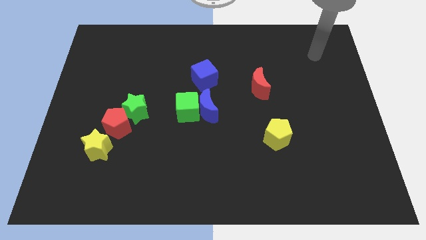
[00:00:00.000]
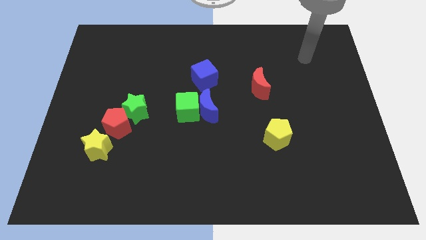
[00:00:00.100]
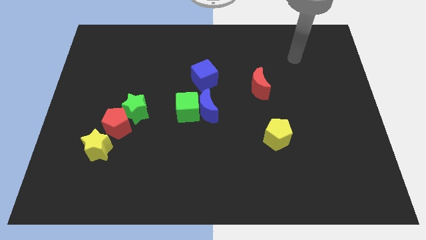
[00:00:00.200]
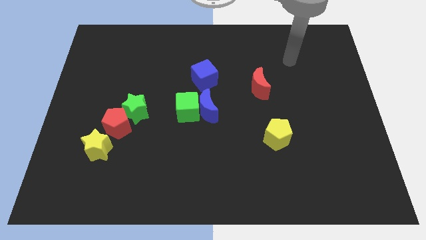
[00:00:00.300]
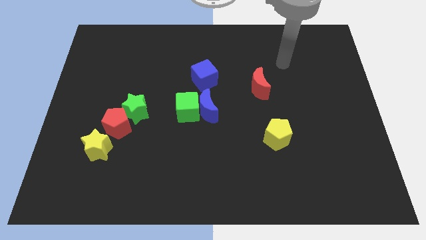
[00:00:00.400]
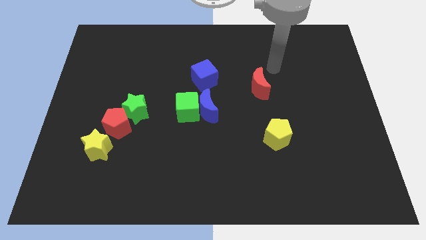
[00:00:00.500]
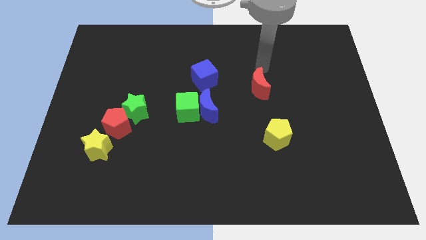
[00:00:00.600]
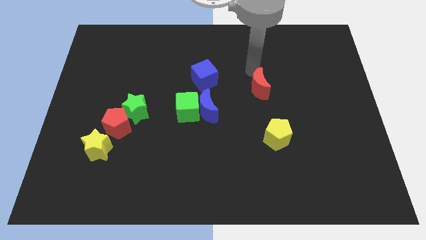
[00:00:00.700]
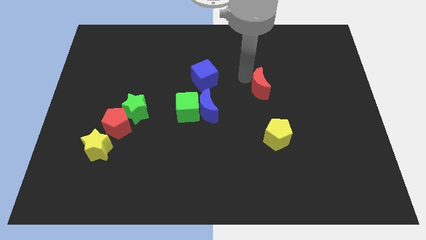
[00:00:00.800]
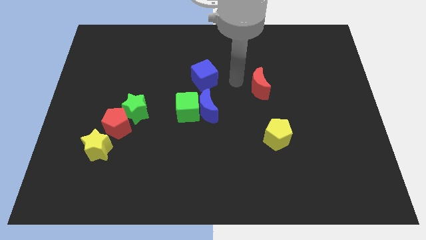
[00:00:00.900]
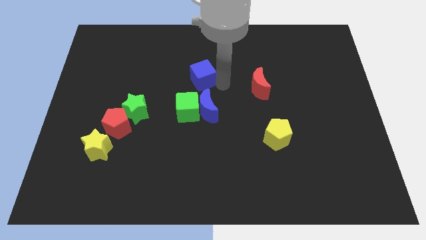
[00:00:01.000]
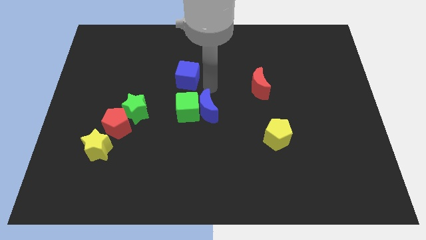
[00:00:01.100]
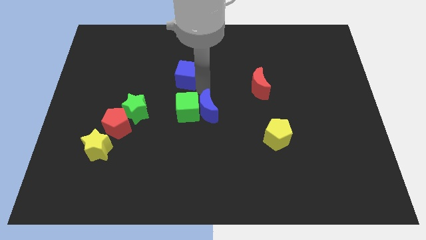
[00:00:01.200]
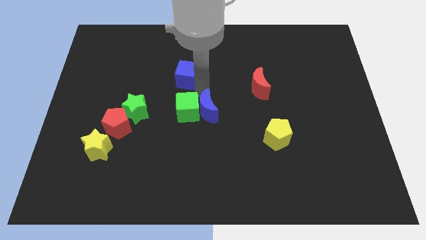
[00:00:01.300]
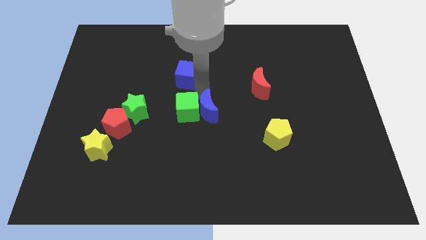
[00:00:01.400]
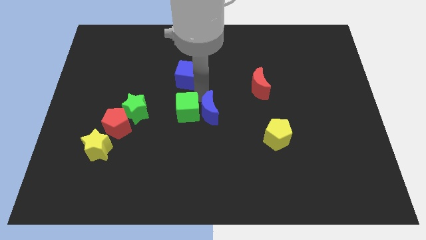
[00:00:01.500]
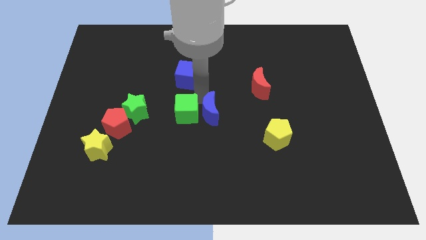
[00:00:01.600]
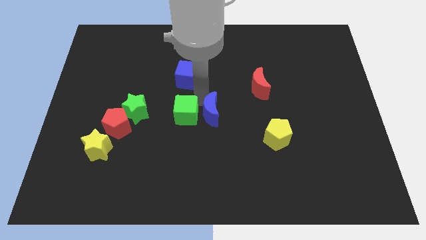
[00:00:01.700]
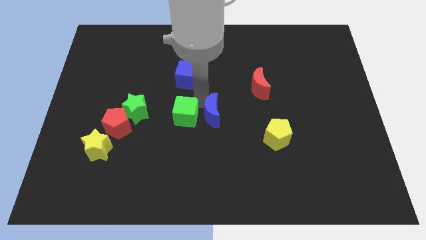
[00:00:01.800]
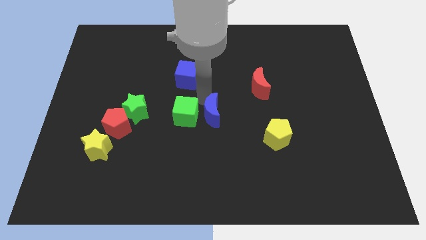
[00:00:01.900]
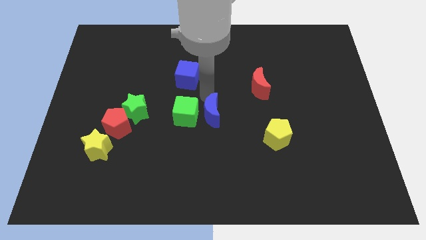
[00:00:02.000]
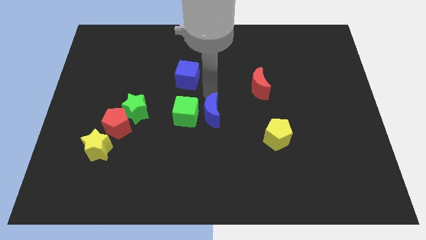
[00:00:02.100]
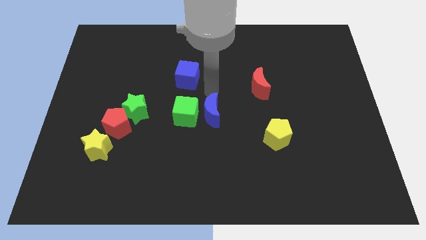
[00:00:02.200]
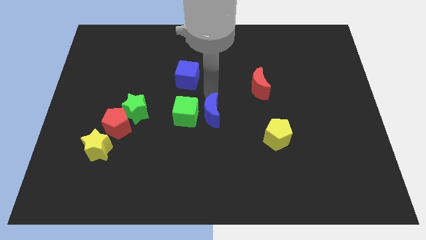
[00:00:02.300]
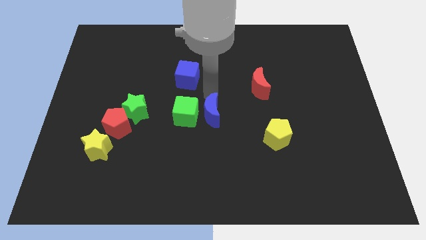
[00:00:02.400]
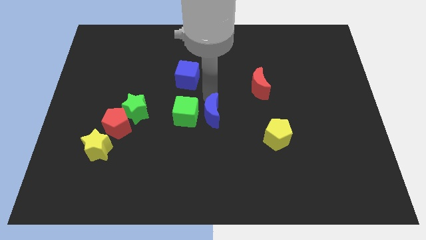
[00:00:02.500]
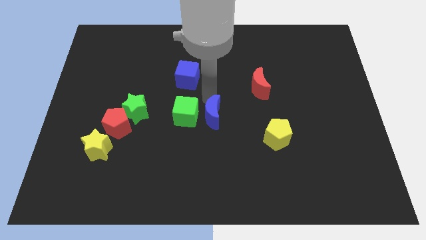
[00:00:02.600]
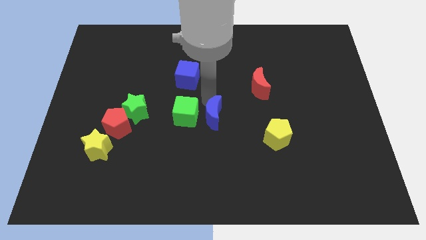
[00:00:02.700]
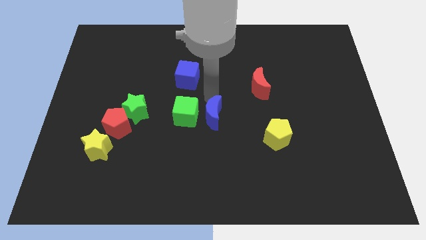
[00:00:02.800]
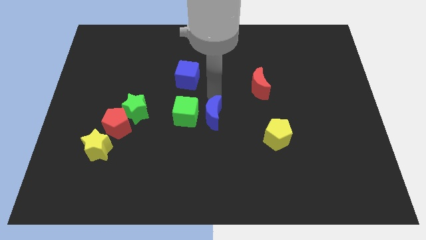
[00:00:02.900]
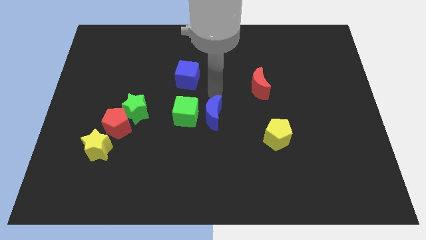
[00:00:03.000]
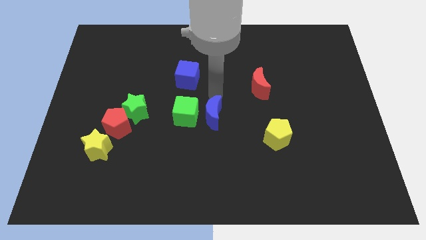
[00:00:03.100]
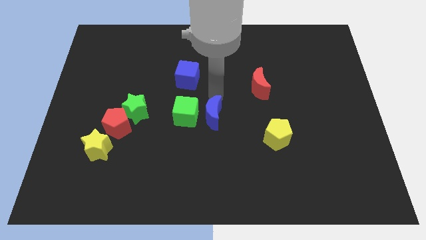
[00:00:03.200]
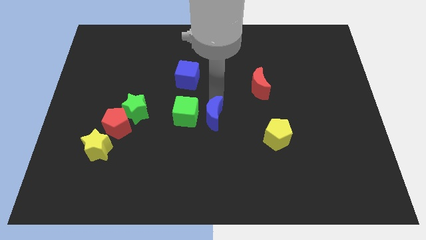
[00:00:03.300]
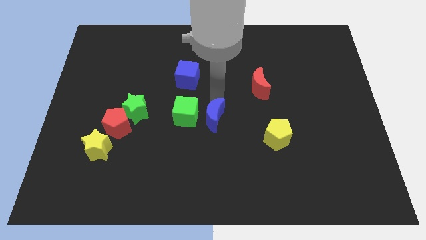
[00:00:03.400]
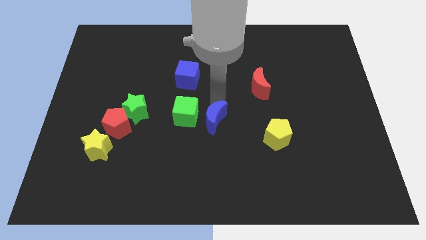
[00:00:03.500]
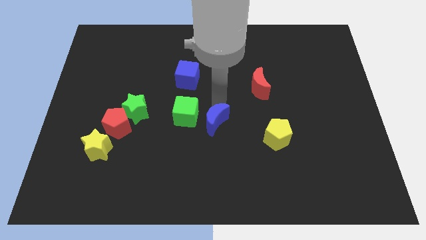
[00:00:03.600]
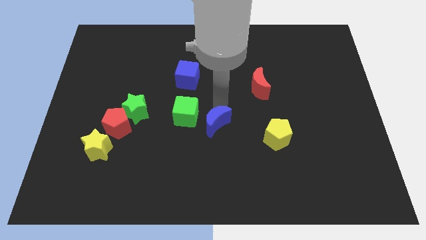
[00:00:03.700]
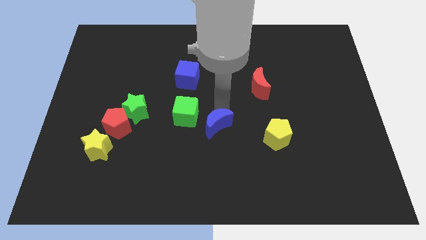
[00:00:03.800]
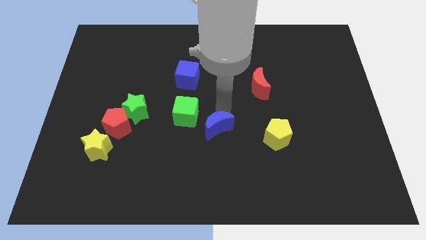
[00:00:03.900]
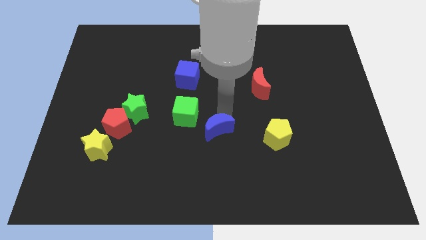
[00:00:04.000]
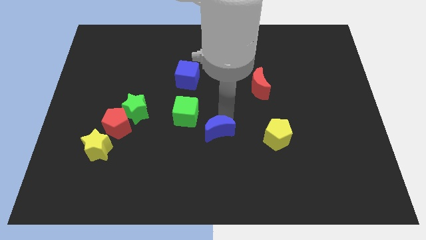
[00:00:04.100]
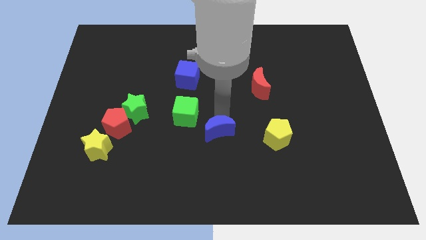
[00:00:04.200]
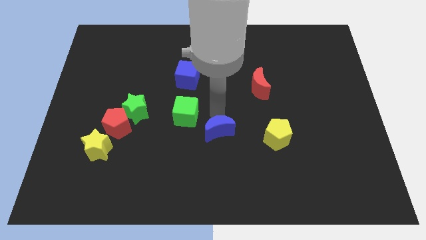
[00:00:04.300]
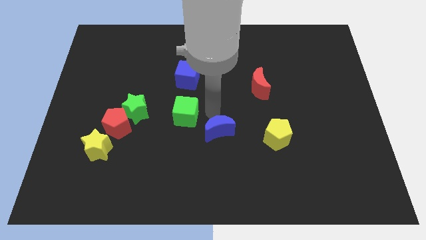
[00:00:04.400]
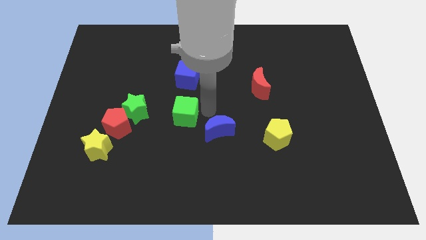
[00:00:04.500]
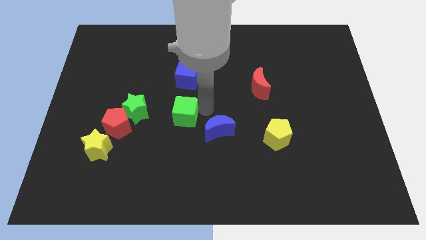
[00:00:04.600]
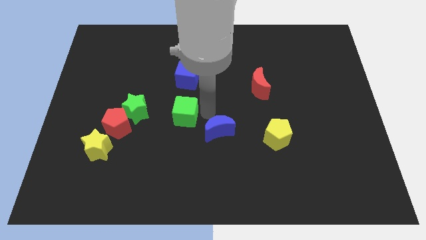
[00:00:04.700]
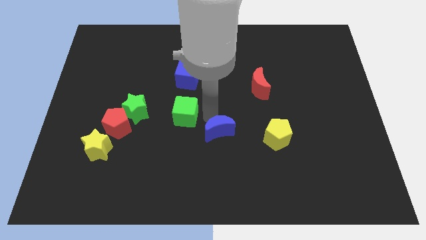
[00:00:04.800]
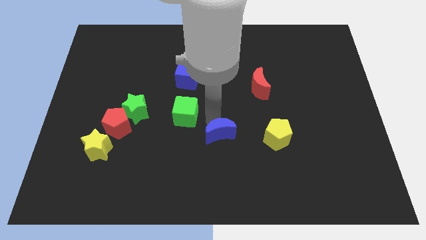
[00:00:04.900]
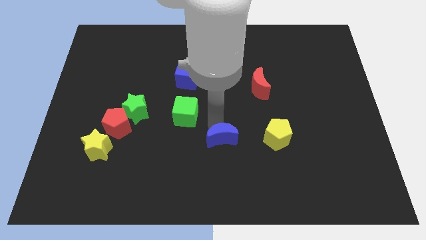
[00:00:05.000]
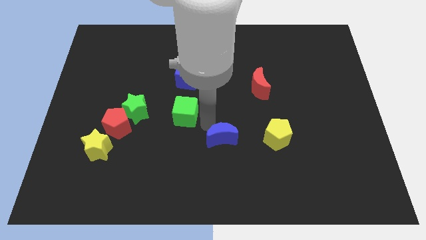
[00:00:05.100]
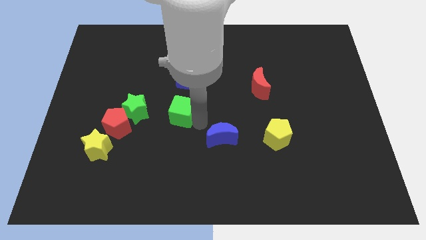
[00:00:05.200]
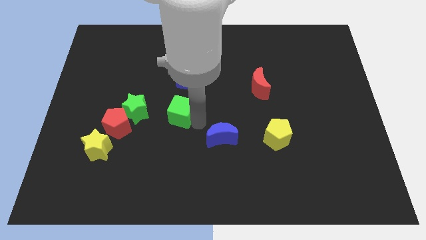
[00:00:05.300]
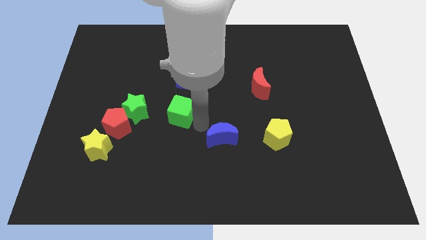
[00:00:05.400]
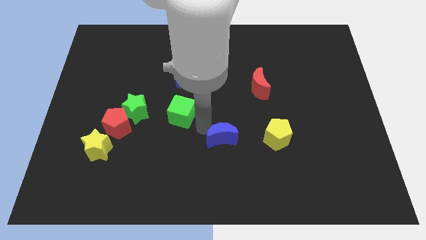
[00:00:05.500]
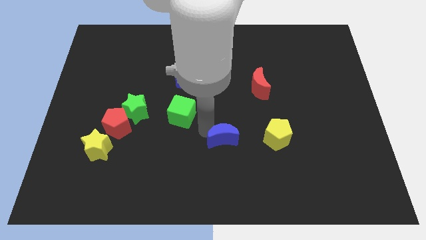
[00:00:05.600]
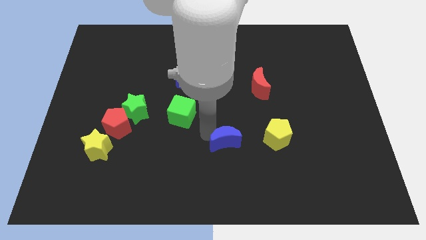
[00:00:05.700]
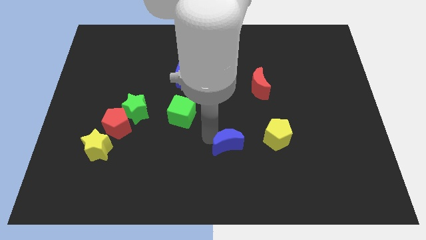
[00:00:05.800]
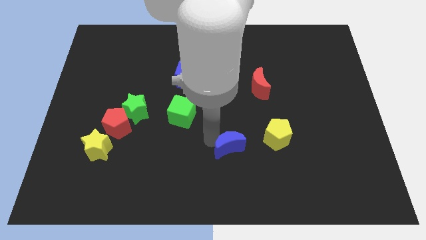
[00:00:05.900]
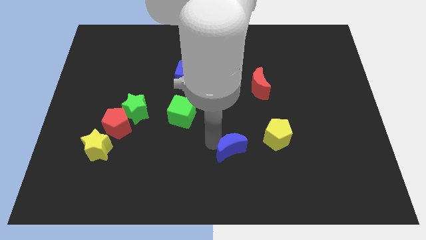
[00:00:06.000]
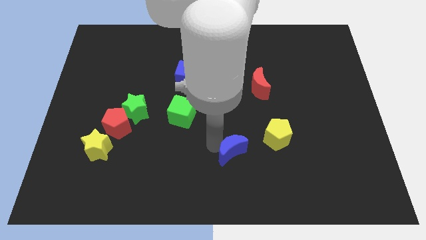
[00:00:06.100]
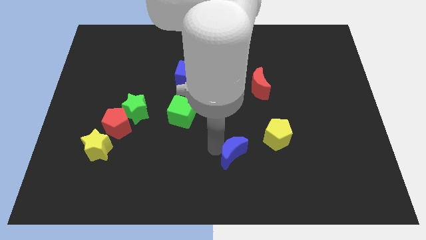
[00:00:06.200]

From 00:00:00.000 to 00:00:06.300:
slide the blue moon diagonally down and to the left of the yellow pentagon

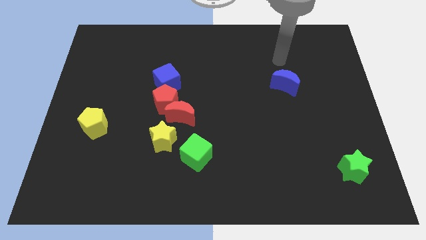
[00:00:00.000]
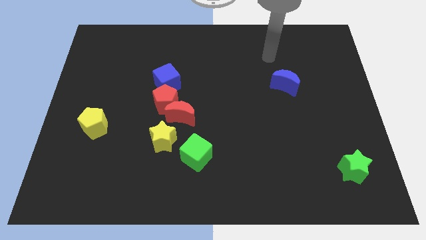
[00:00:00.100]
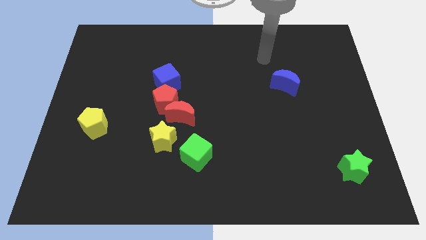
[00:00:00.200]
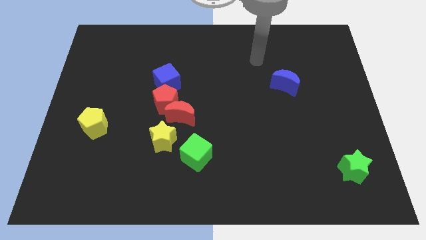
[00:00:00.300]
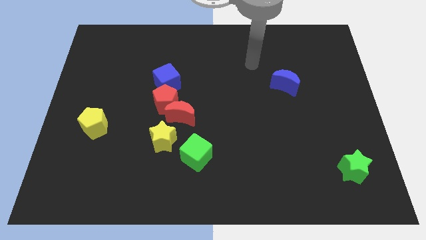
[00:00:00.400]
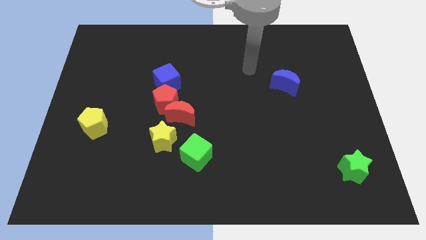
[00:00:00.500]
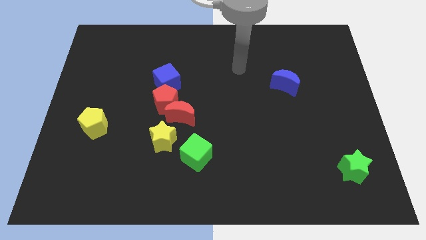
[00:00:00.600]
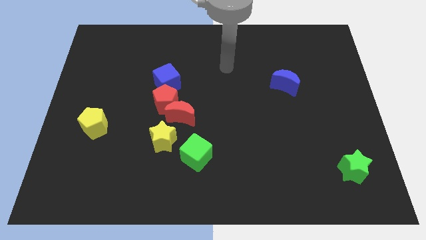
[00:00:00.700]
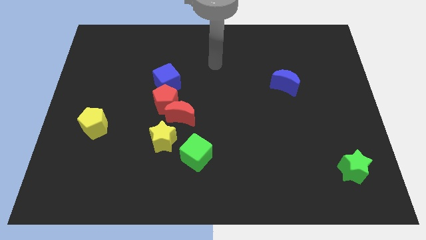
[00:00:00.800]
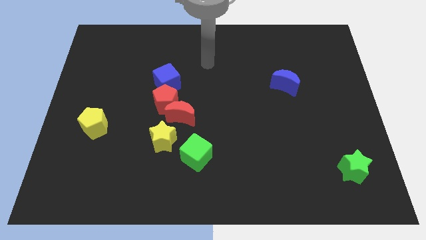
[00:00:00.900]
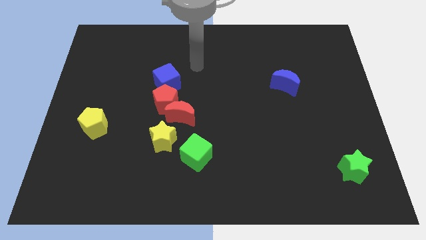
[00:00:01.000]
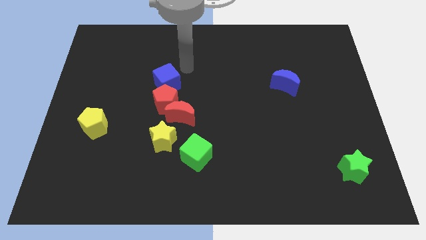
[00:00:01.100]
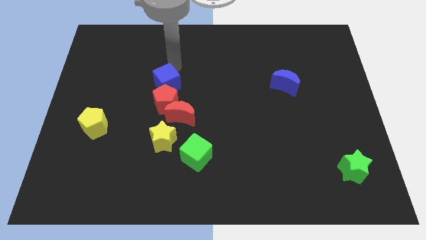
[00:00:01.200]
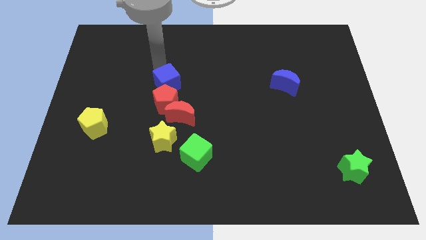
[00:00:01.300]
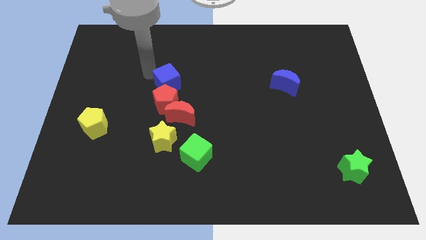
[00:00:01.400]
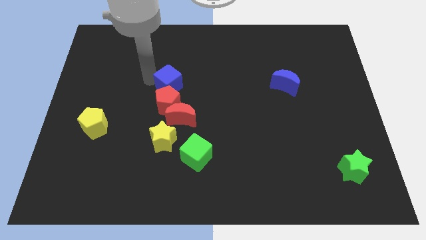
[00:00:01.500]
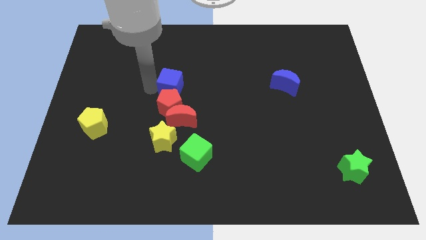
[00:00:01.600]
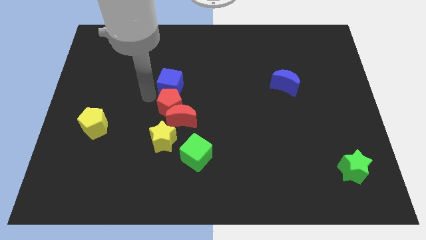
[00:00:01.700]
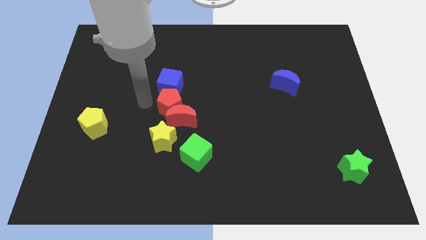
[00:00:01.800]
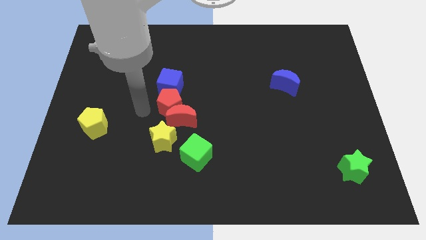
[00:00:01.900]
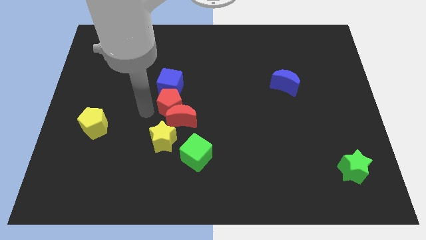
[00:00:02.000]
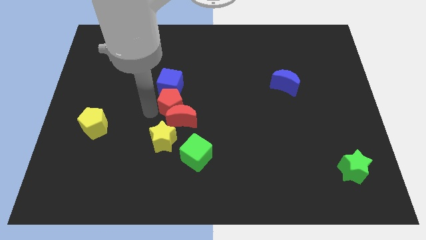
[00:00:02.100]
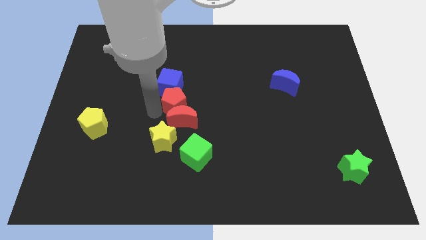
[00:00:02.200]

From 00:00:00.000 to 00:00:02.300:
put the red pentagon to the top right side of the red moon
